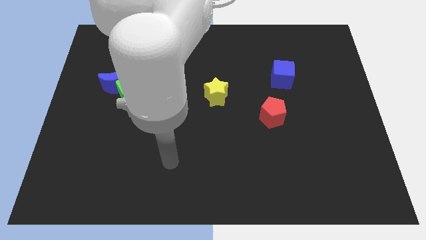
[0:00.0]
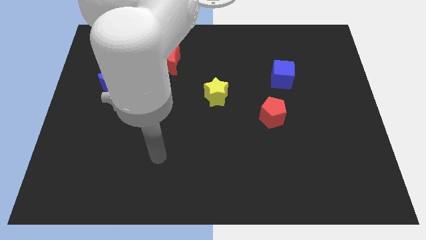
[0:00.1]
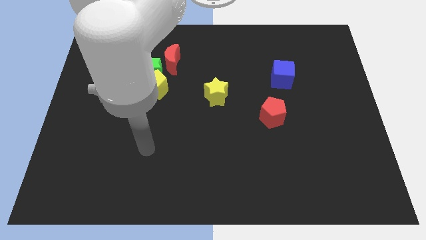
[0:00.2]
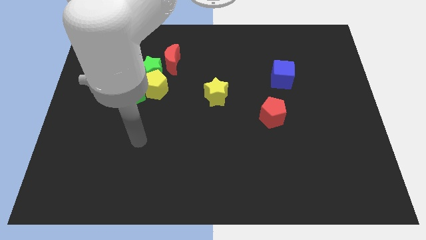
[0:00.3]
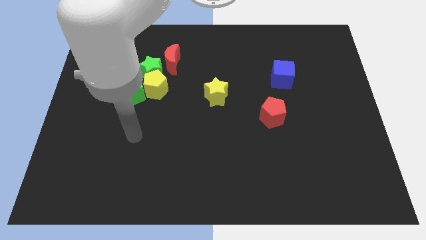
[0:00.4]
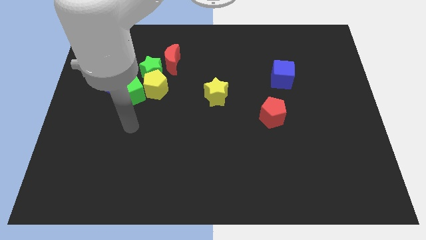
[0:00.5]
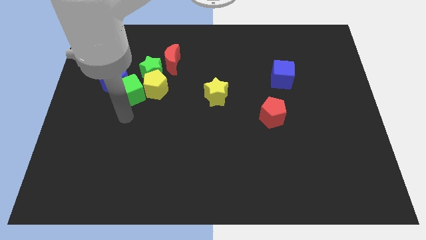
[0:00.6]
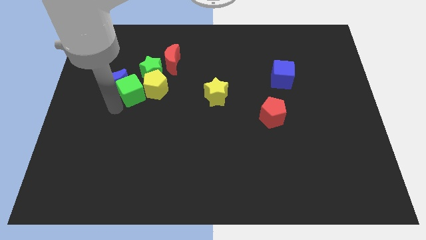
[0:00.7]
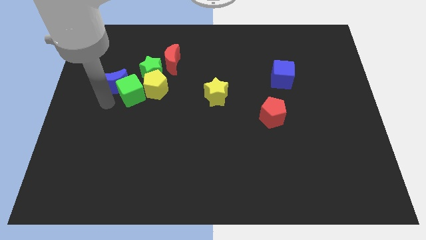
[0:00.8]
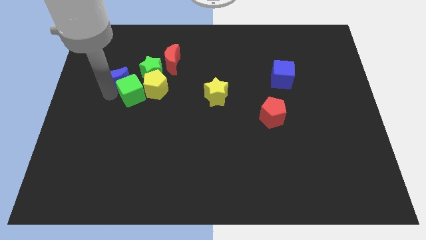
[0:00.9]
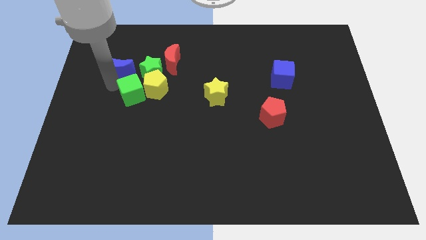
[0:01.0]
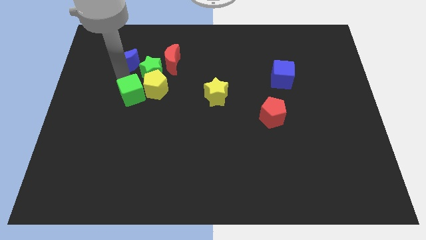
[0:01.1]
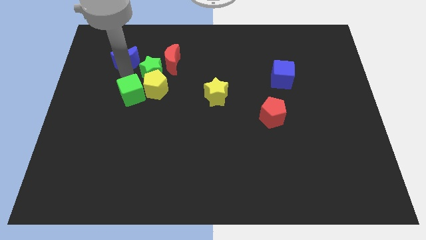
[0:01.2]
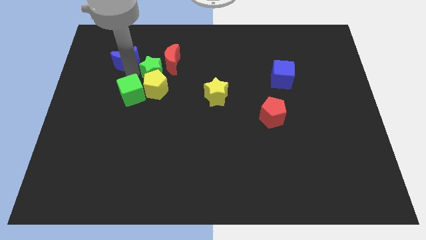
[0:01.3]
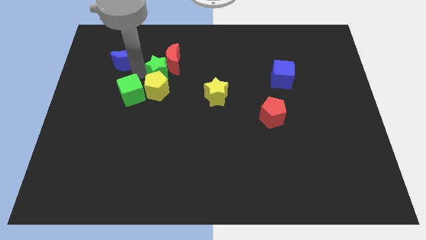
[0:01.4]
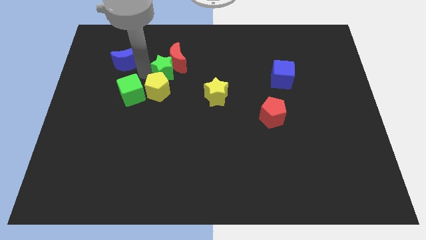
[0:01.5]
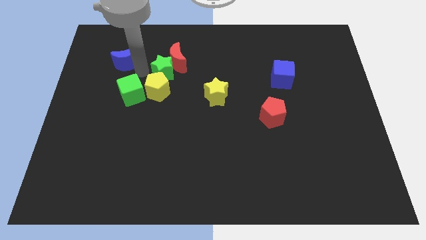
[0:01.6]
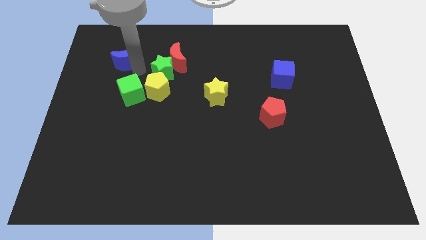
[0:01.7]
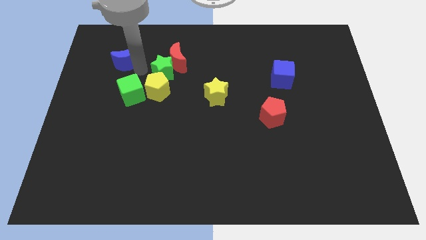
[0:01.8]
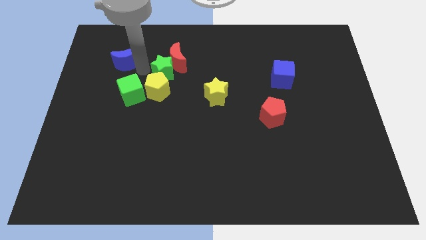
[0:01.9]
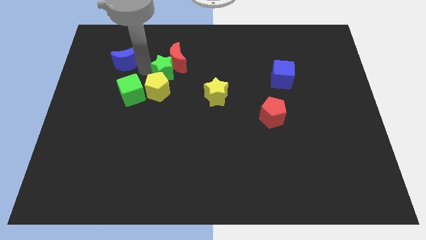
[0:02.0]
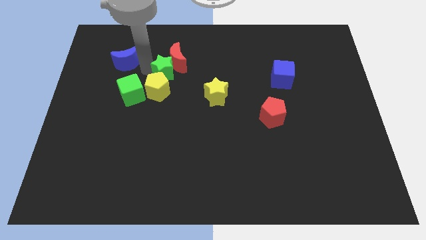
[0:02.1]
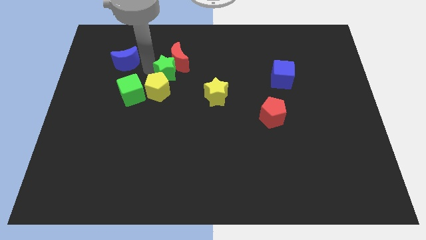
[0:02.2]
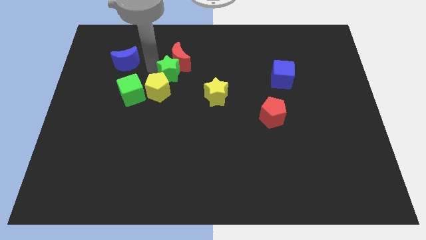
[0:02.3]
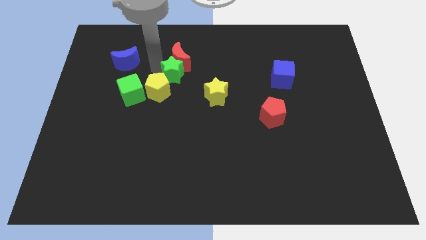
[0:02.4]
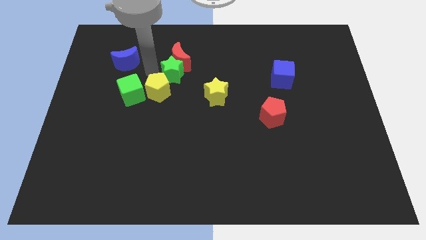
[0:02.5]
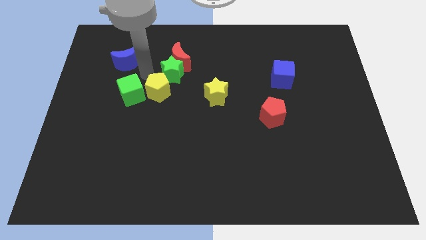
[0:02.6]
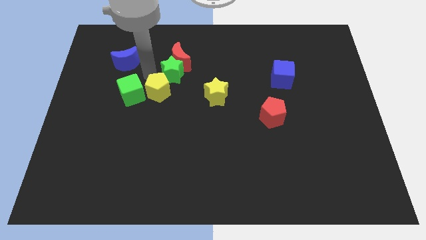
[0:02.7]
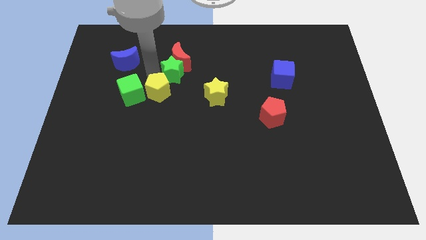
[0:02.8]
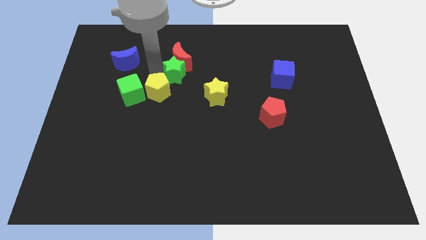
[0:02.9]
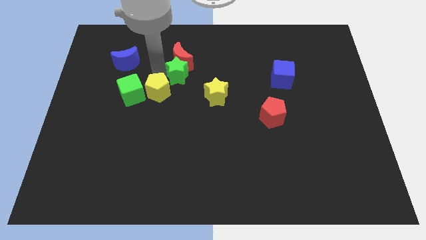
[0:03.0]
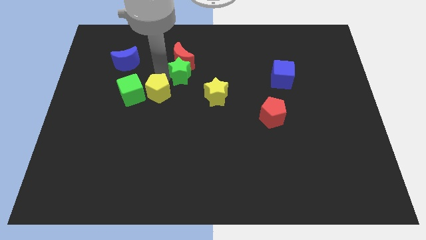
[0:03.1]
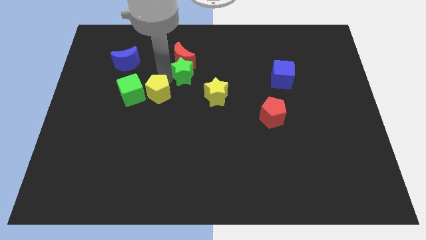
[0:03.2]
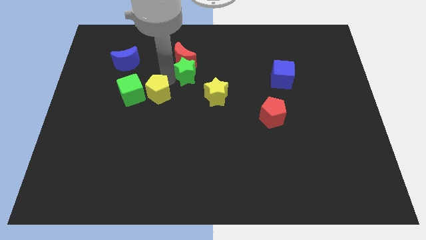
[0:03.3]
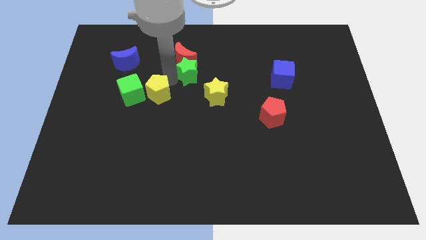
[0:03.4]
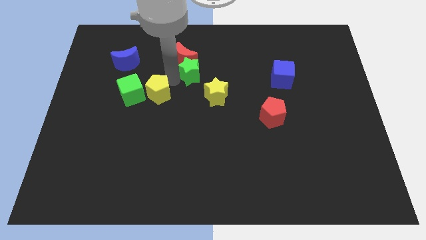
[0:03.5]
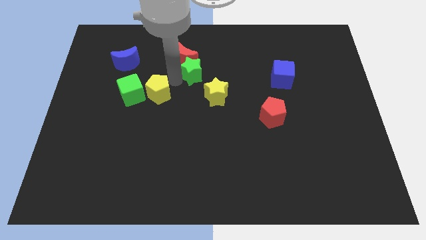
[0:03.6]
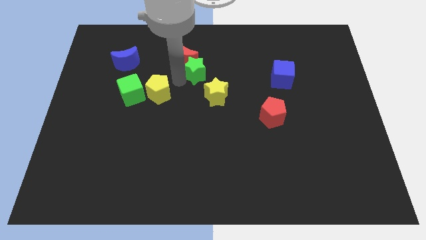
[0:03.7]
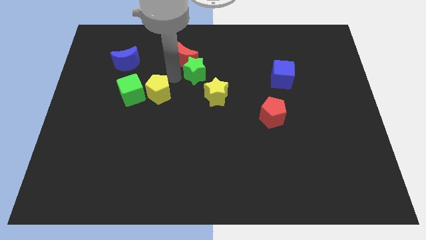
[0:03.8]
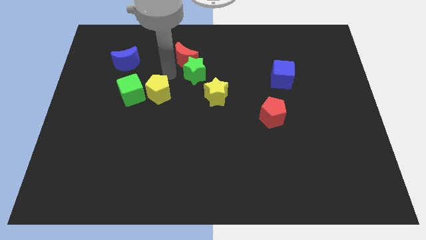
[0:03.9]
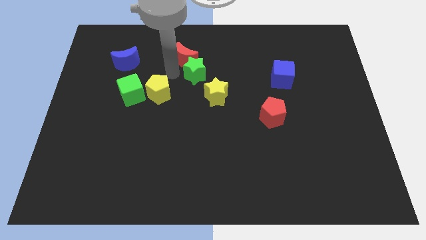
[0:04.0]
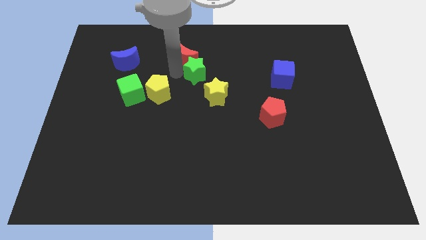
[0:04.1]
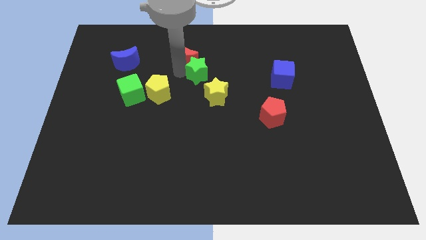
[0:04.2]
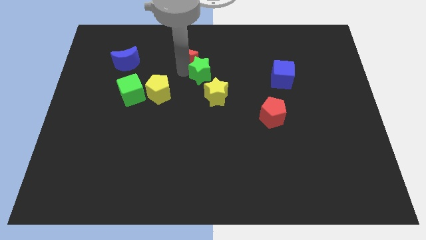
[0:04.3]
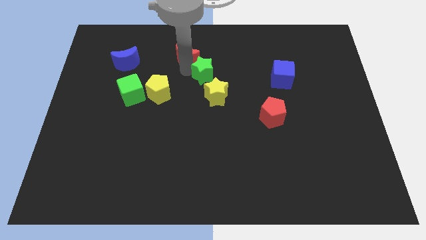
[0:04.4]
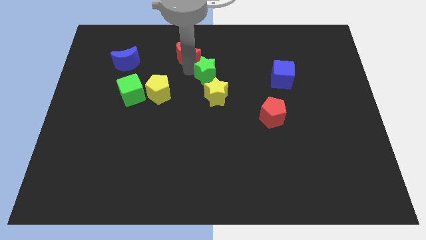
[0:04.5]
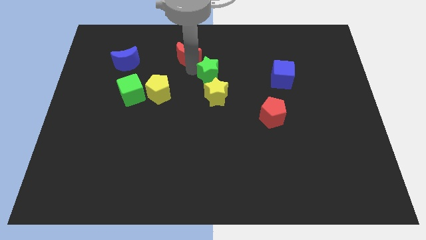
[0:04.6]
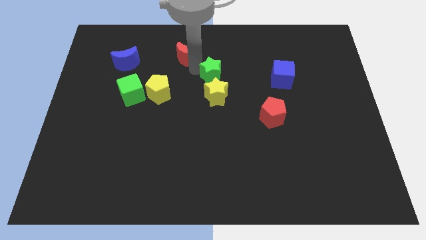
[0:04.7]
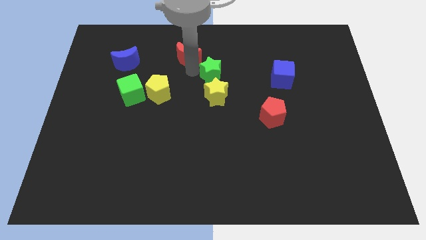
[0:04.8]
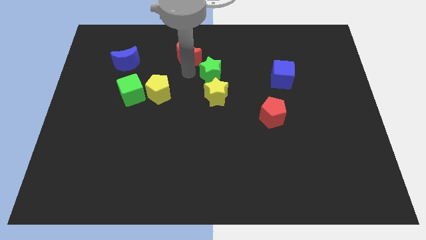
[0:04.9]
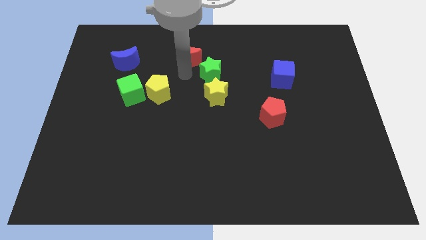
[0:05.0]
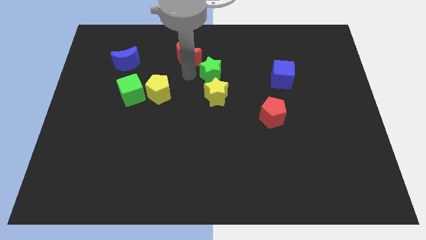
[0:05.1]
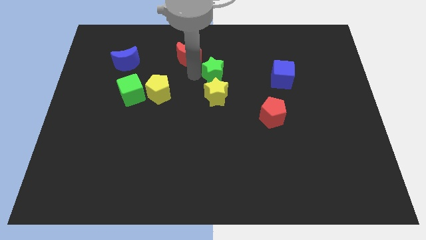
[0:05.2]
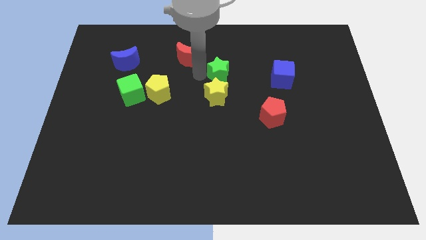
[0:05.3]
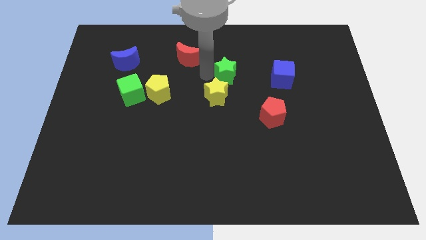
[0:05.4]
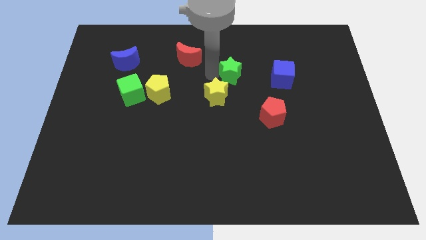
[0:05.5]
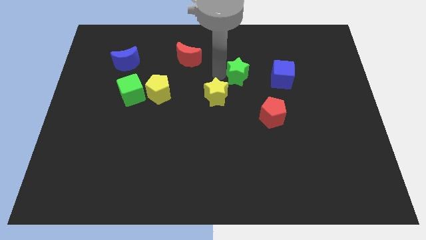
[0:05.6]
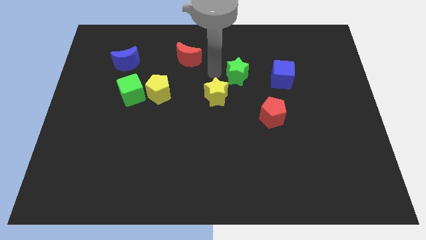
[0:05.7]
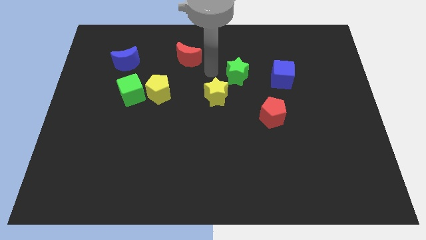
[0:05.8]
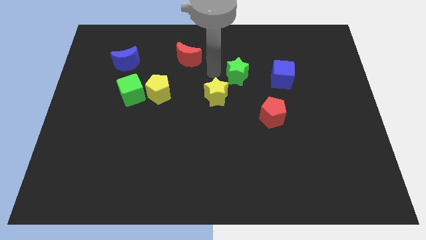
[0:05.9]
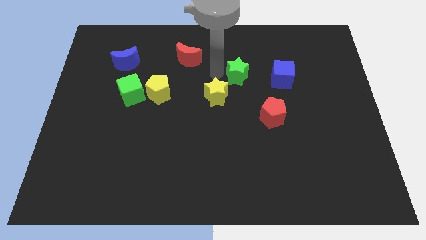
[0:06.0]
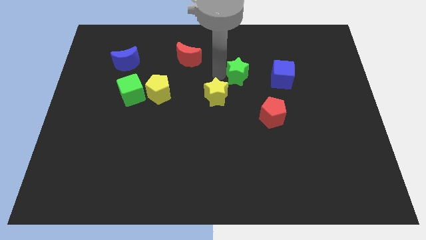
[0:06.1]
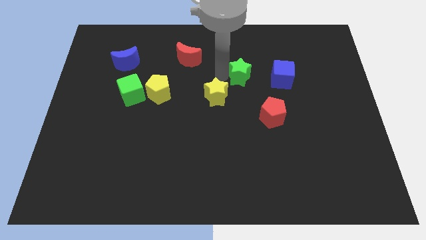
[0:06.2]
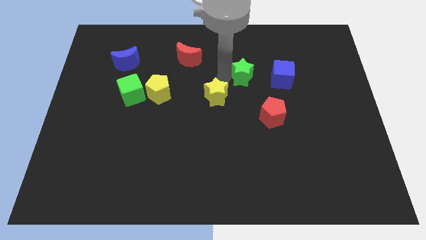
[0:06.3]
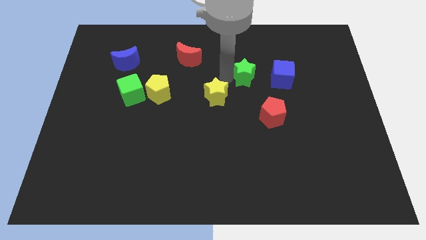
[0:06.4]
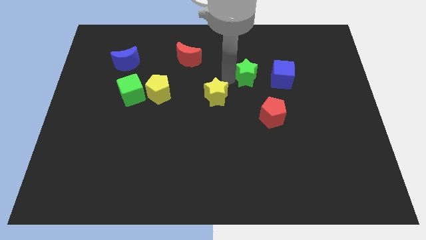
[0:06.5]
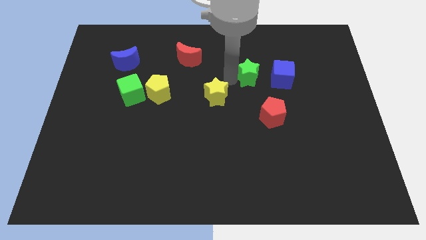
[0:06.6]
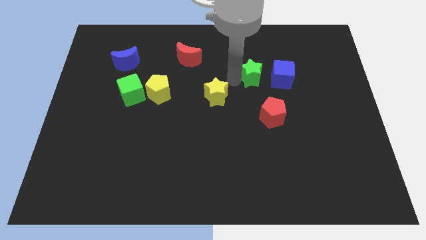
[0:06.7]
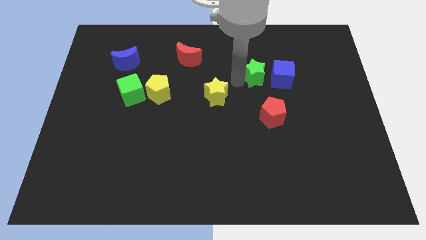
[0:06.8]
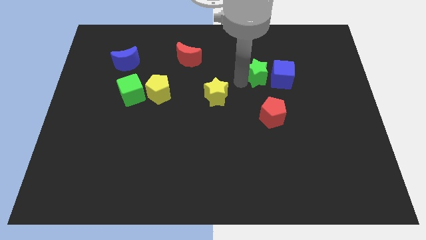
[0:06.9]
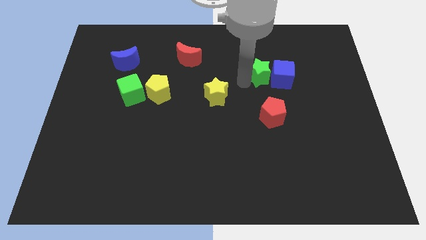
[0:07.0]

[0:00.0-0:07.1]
slide the green star next to the blue cube

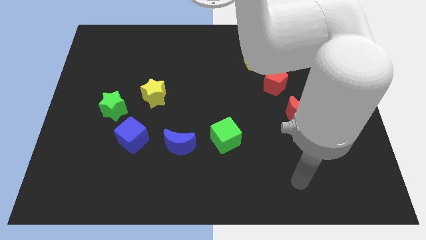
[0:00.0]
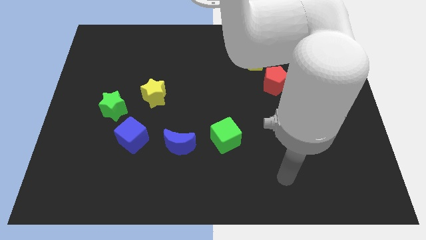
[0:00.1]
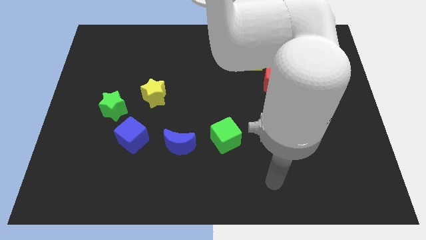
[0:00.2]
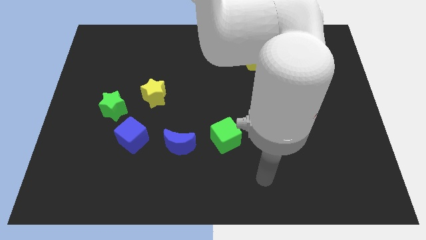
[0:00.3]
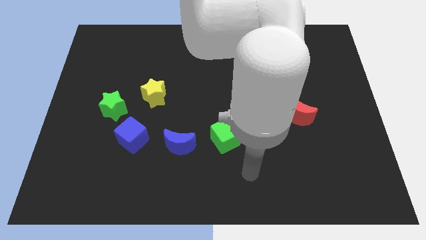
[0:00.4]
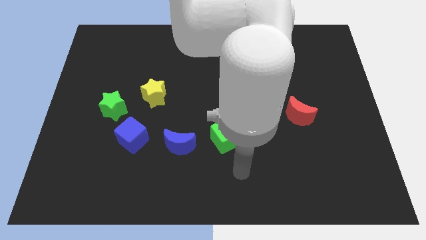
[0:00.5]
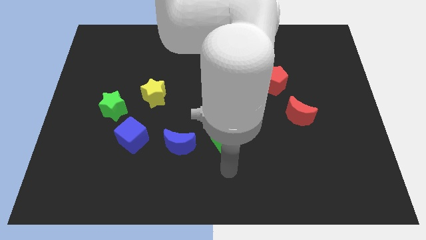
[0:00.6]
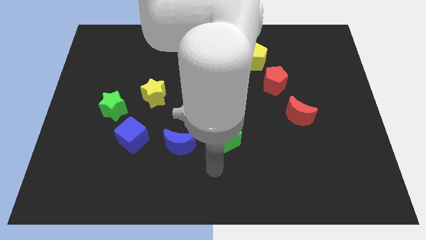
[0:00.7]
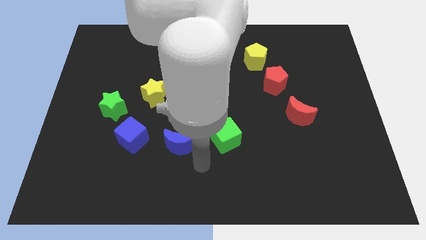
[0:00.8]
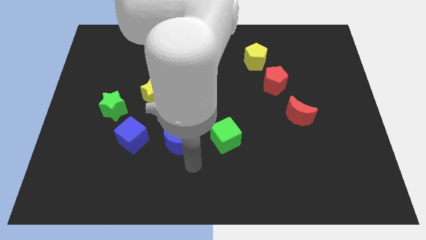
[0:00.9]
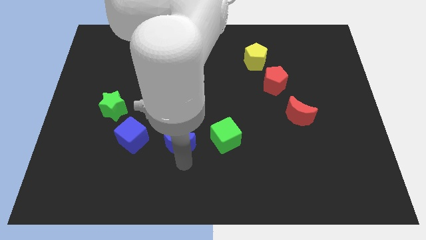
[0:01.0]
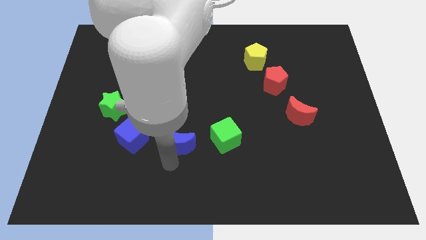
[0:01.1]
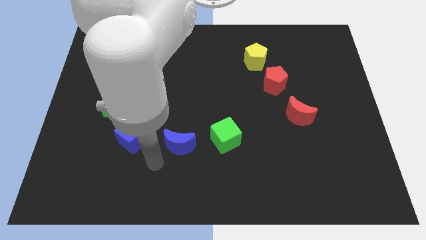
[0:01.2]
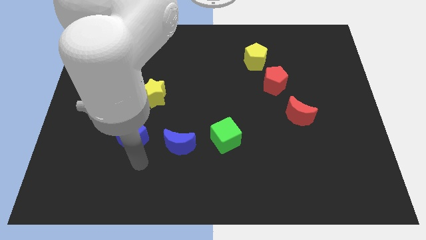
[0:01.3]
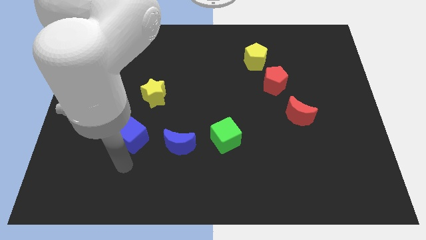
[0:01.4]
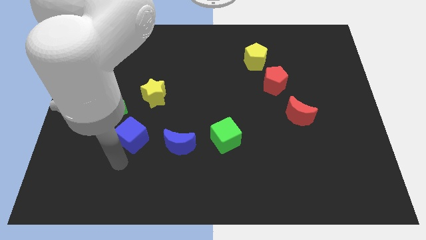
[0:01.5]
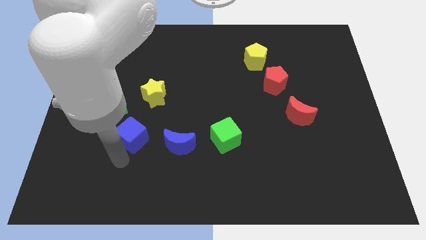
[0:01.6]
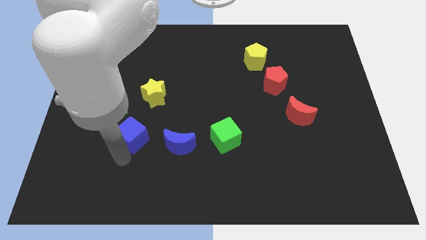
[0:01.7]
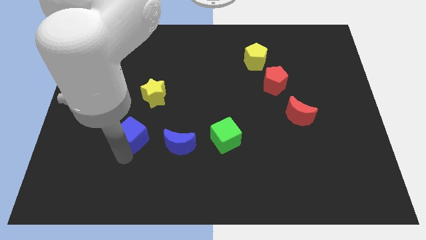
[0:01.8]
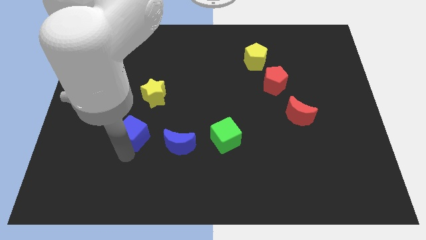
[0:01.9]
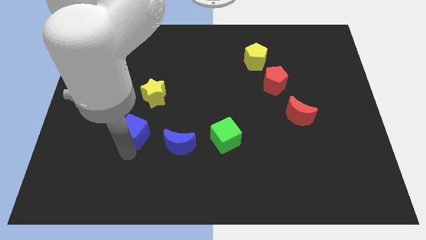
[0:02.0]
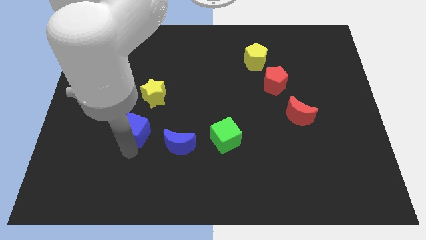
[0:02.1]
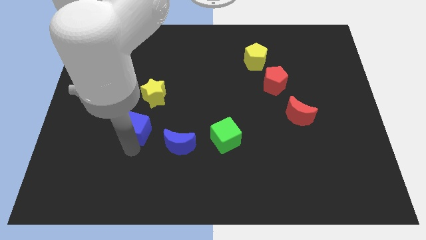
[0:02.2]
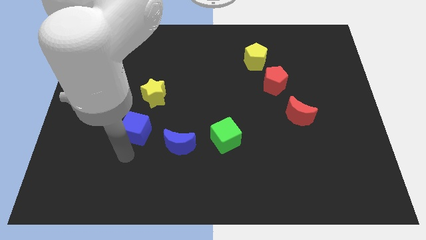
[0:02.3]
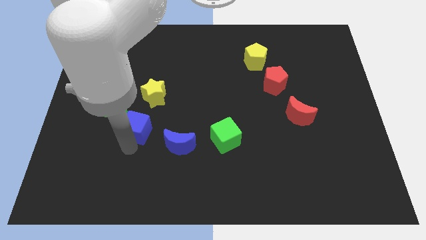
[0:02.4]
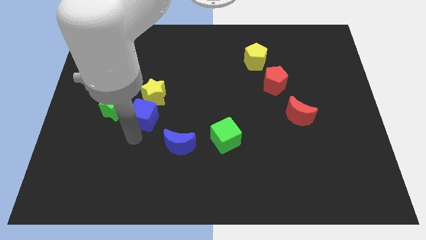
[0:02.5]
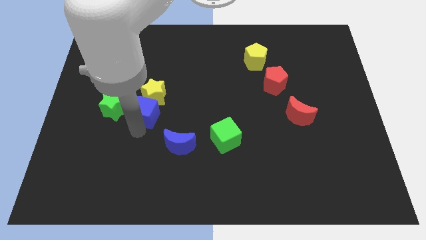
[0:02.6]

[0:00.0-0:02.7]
move the blue cube towards the yellow star
